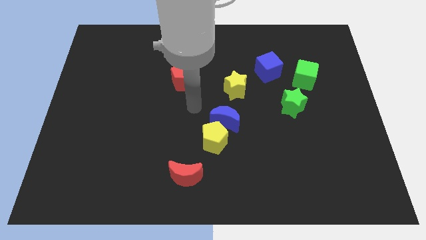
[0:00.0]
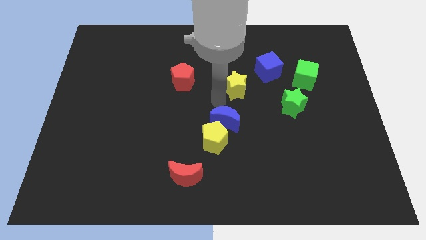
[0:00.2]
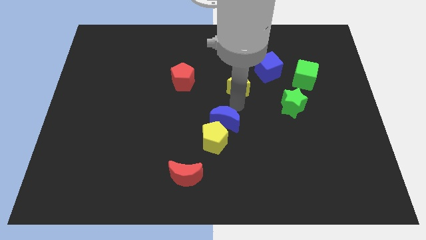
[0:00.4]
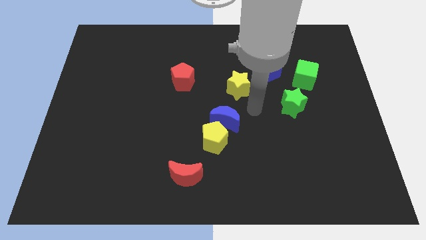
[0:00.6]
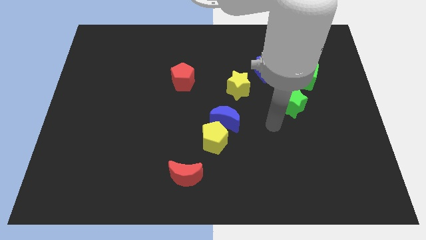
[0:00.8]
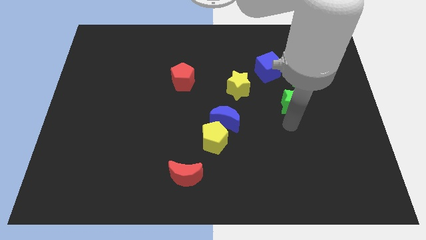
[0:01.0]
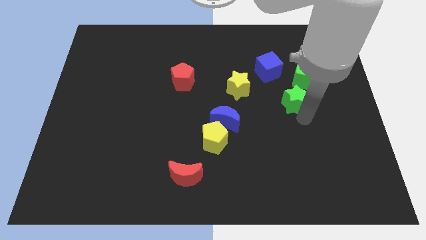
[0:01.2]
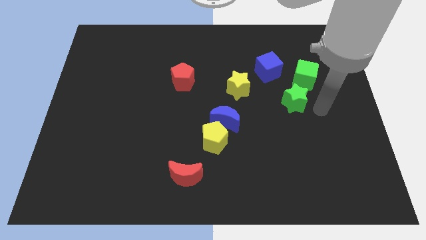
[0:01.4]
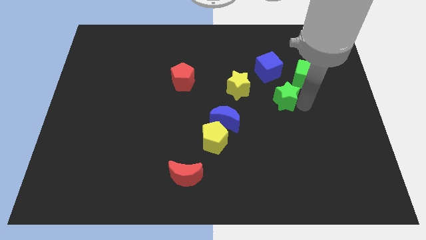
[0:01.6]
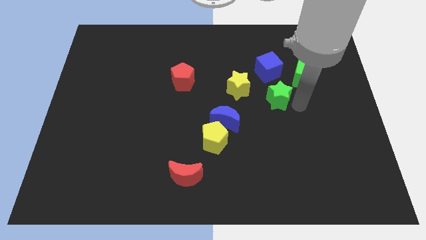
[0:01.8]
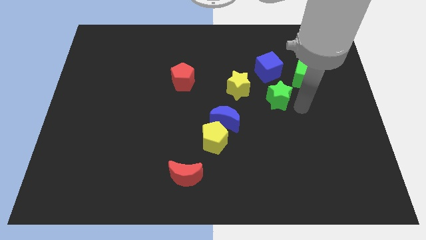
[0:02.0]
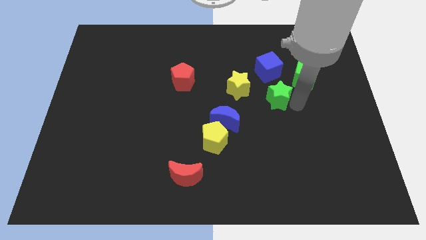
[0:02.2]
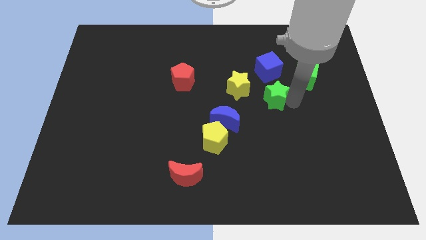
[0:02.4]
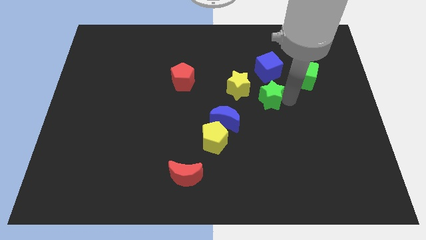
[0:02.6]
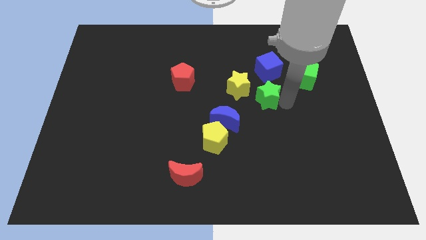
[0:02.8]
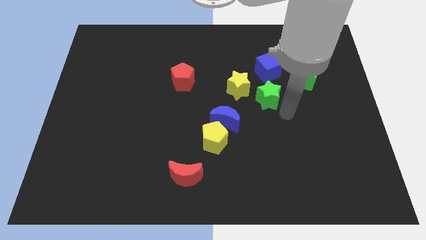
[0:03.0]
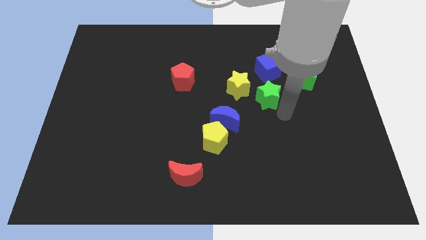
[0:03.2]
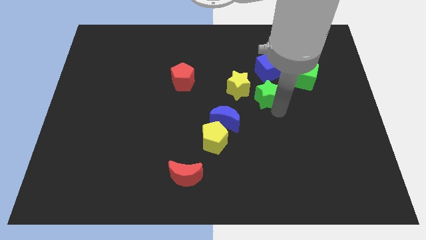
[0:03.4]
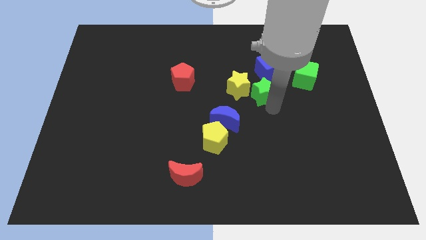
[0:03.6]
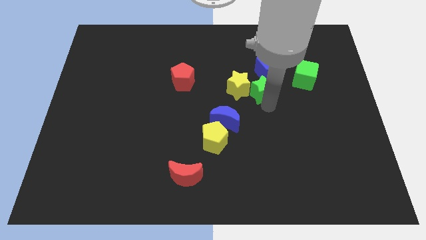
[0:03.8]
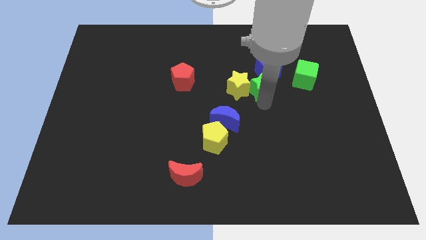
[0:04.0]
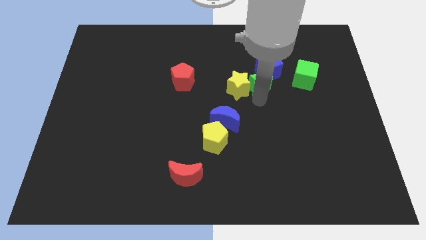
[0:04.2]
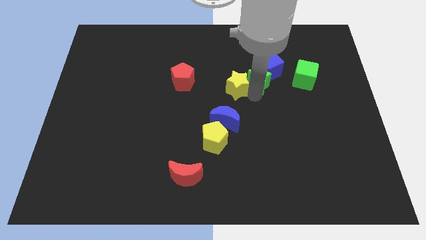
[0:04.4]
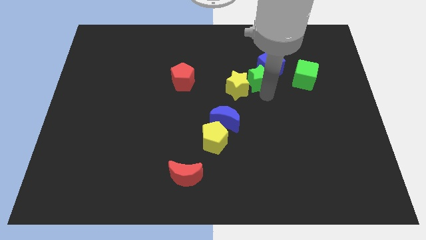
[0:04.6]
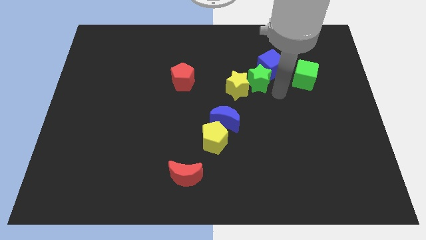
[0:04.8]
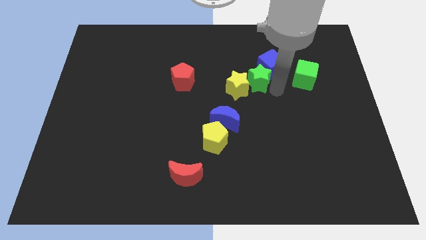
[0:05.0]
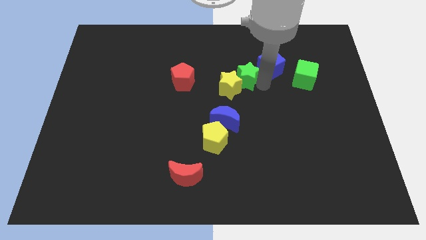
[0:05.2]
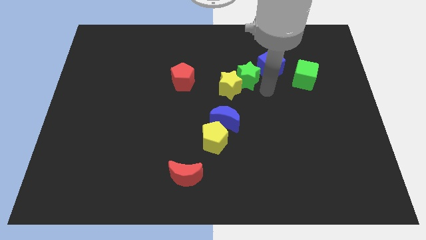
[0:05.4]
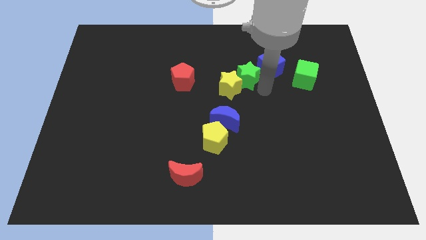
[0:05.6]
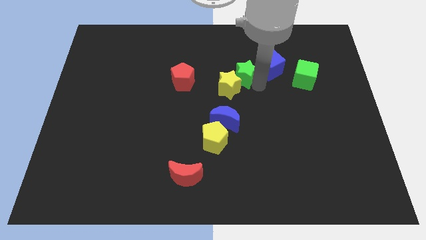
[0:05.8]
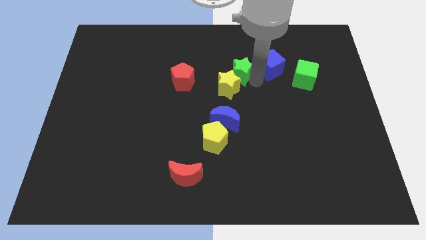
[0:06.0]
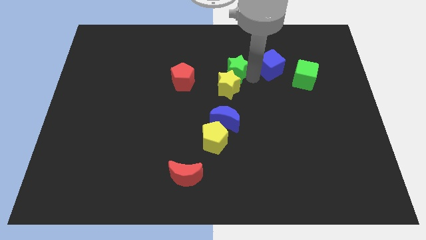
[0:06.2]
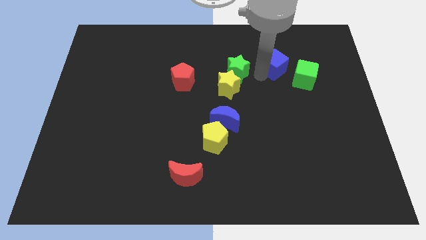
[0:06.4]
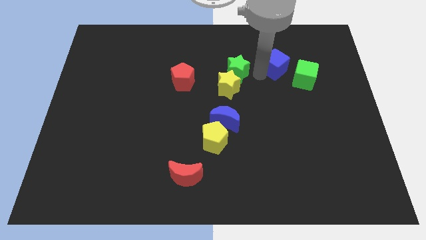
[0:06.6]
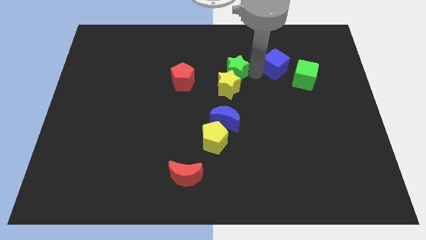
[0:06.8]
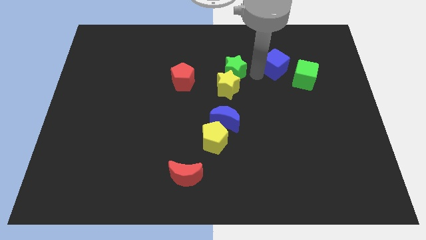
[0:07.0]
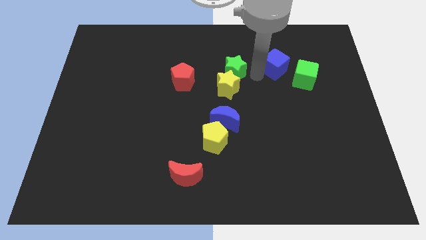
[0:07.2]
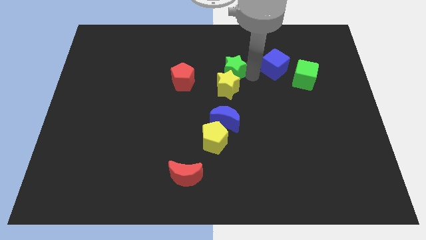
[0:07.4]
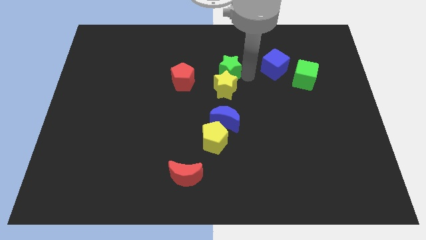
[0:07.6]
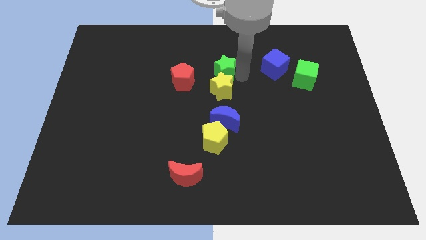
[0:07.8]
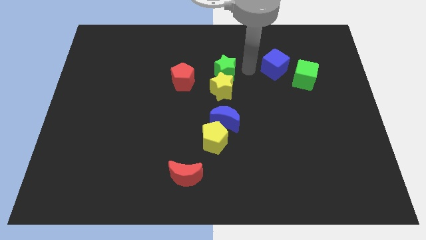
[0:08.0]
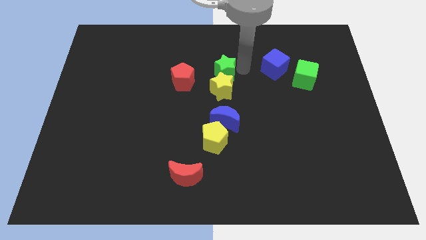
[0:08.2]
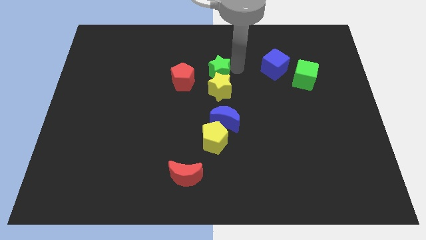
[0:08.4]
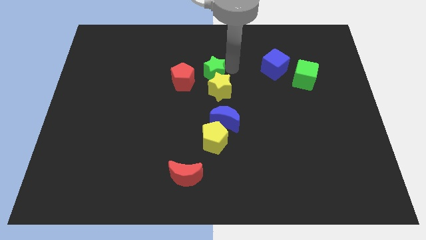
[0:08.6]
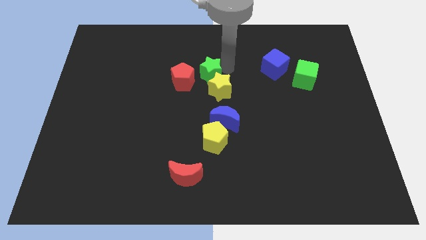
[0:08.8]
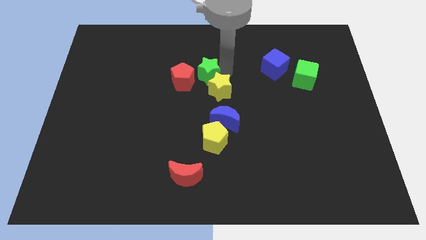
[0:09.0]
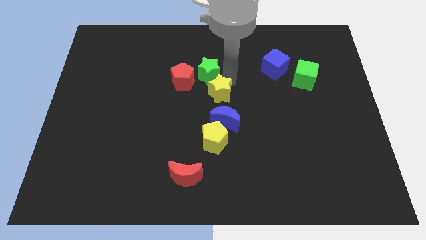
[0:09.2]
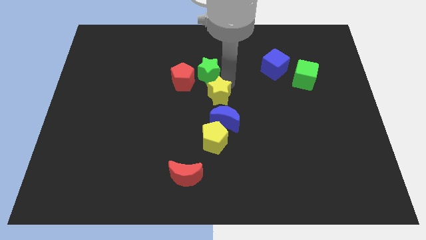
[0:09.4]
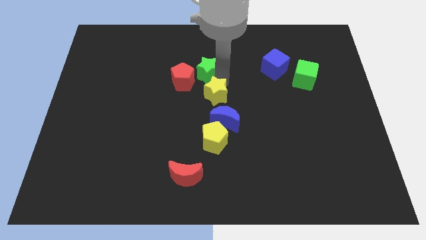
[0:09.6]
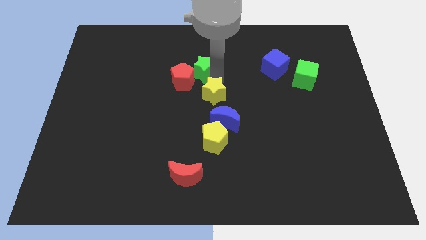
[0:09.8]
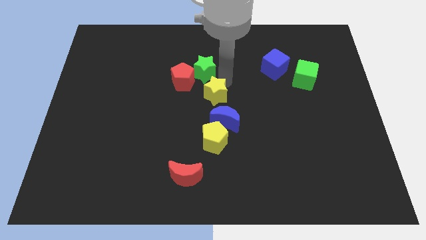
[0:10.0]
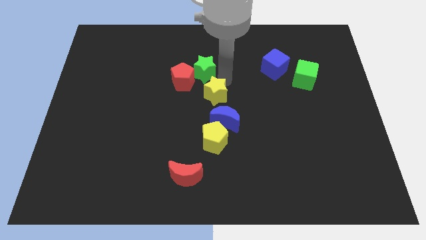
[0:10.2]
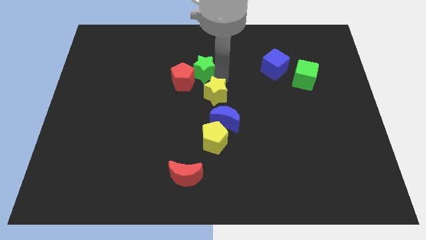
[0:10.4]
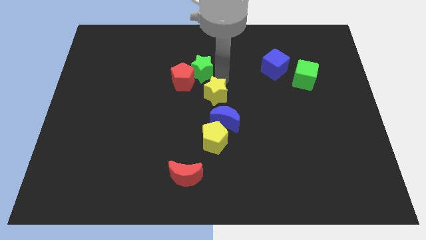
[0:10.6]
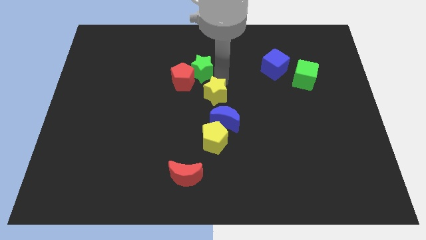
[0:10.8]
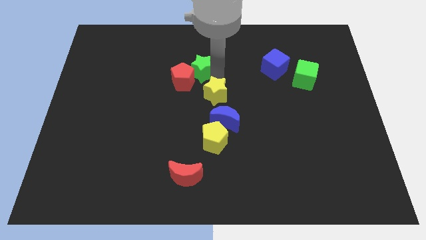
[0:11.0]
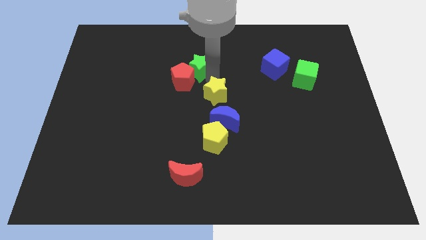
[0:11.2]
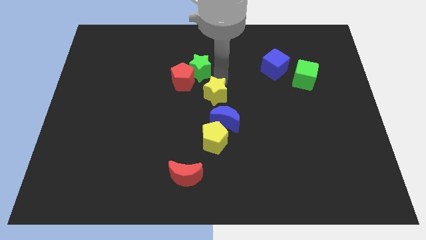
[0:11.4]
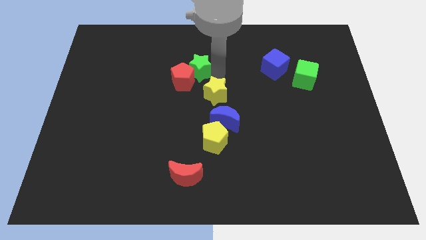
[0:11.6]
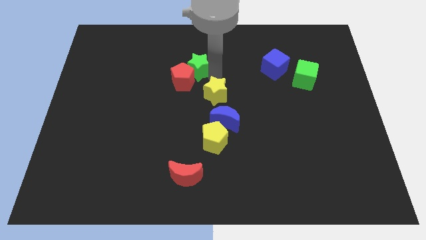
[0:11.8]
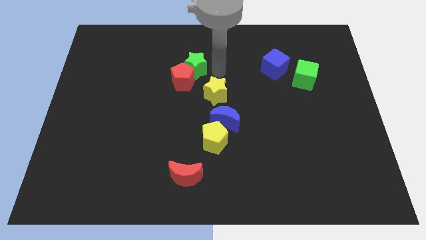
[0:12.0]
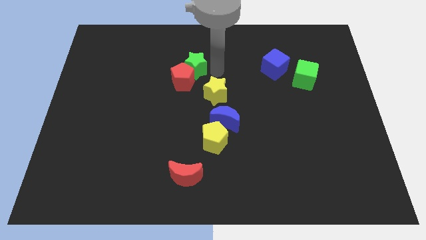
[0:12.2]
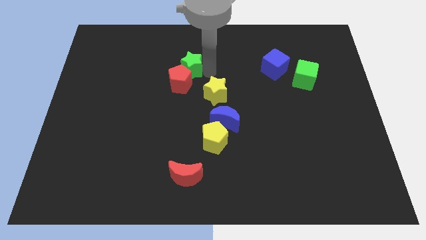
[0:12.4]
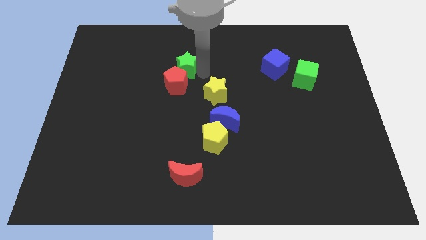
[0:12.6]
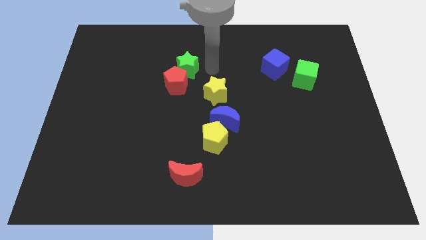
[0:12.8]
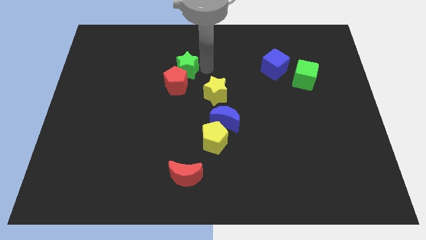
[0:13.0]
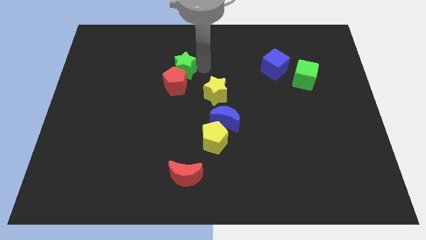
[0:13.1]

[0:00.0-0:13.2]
put the green star diagonally up and to the left of the red pentagon

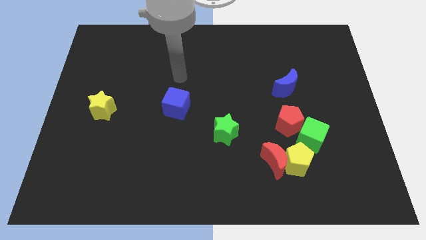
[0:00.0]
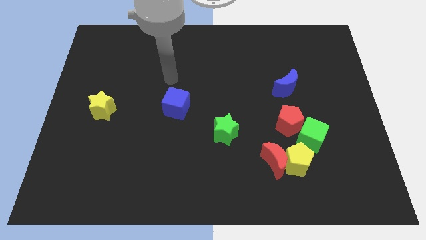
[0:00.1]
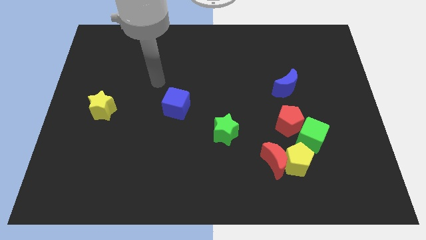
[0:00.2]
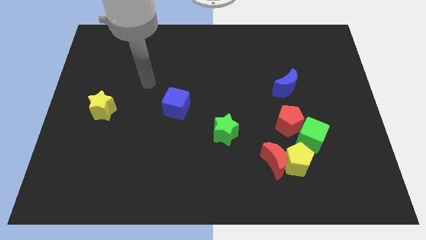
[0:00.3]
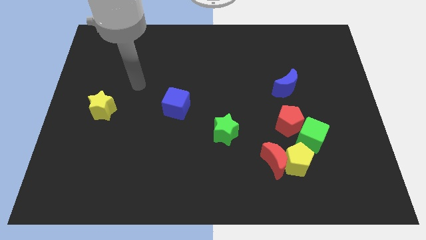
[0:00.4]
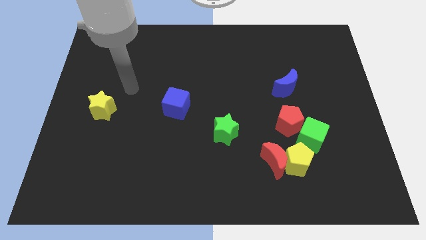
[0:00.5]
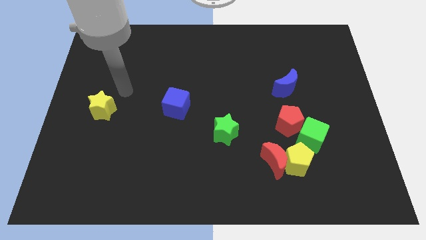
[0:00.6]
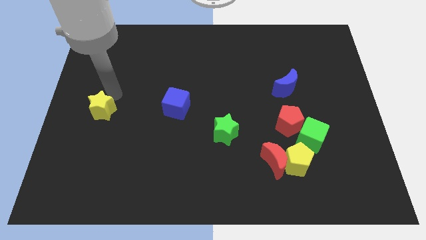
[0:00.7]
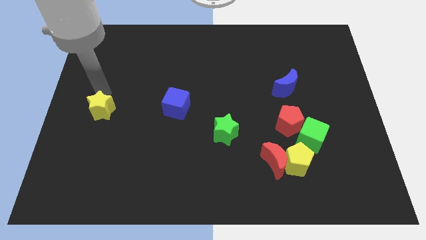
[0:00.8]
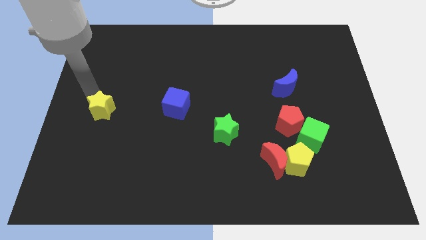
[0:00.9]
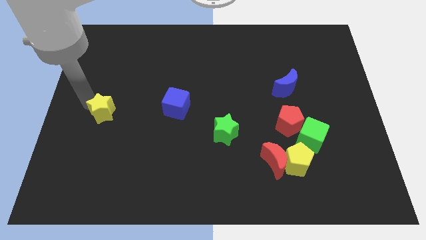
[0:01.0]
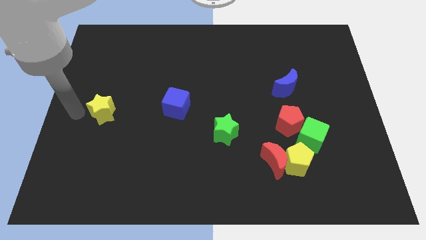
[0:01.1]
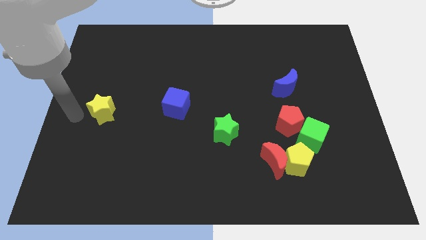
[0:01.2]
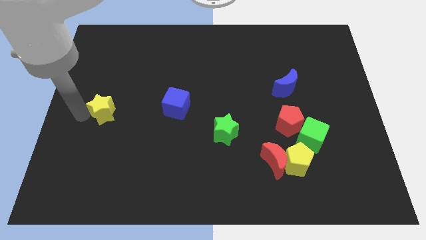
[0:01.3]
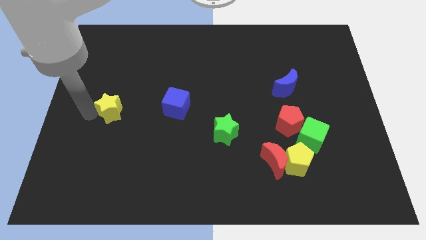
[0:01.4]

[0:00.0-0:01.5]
put the yellow star left of the blue cube
